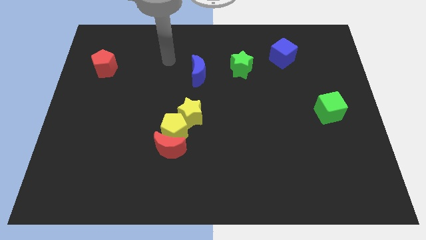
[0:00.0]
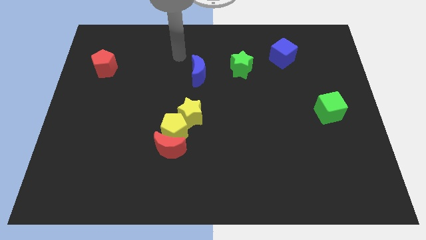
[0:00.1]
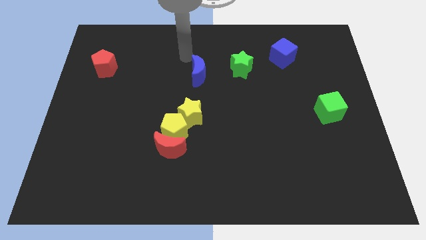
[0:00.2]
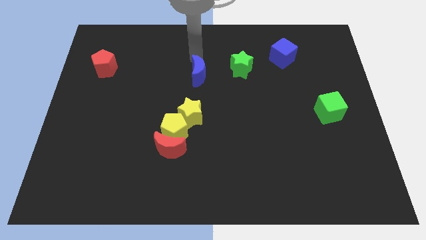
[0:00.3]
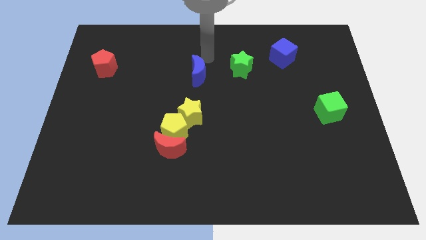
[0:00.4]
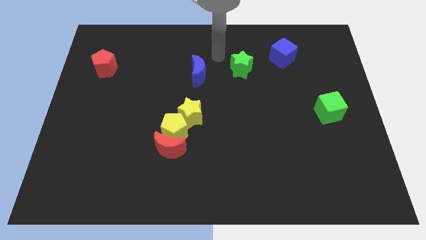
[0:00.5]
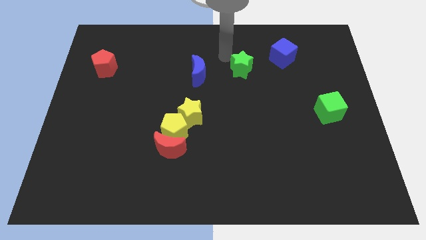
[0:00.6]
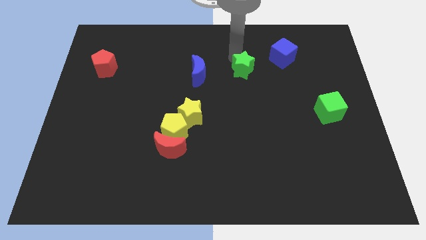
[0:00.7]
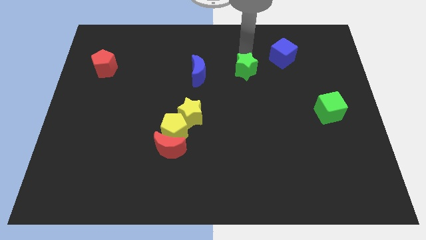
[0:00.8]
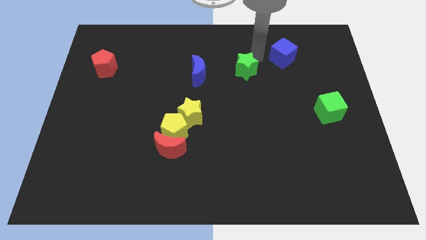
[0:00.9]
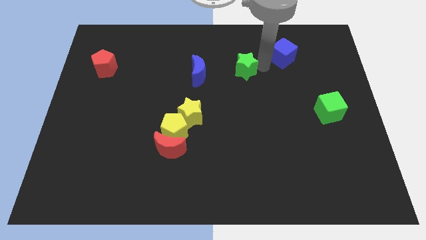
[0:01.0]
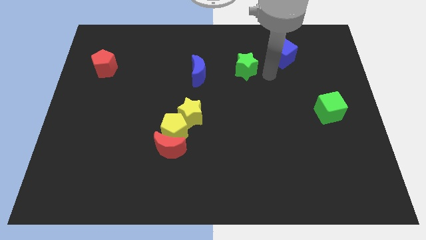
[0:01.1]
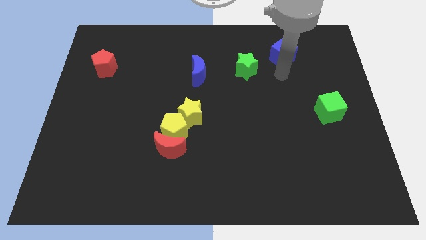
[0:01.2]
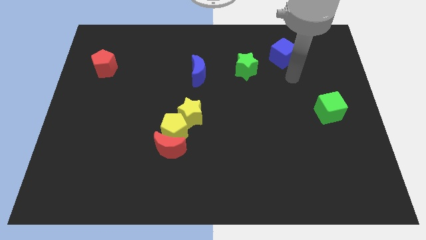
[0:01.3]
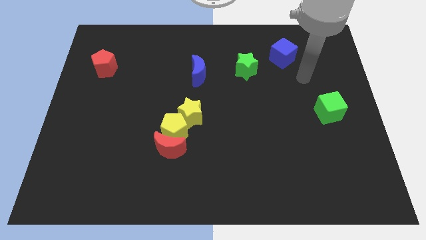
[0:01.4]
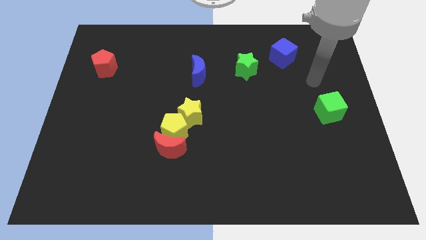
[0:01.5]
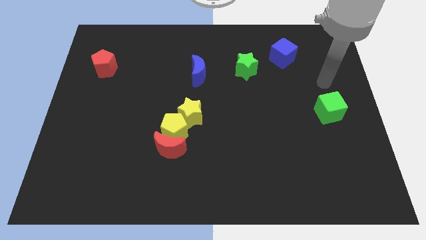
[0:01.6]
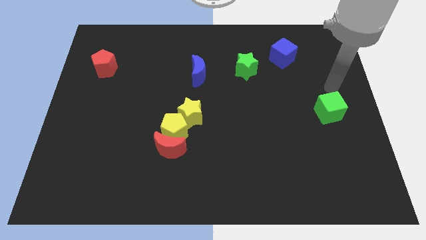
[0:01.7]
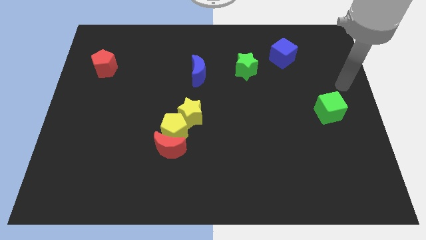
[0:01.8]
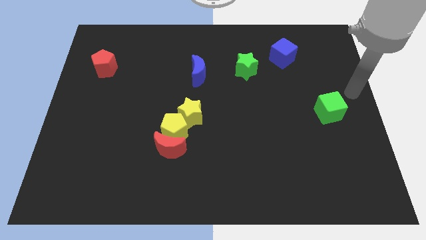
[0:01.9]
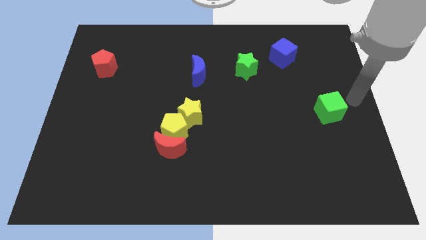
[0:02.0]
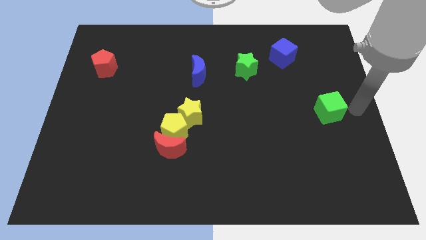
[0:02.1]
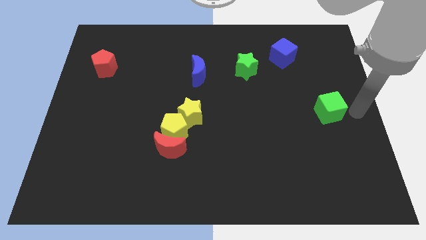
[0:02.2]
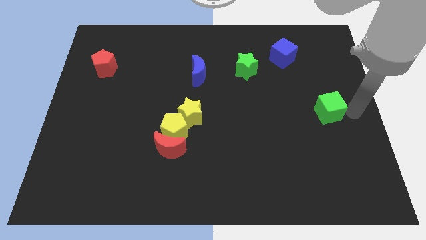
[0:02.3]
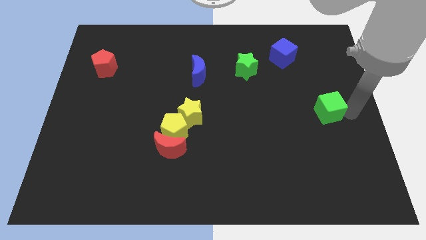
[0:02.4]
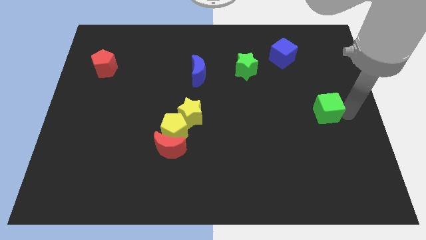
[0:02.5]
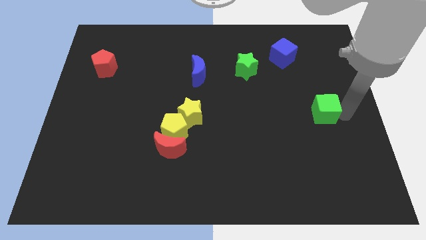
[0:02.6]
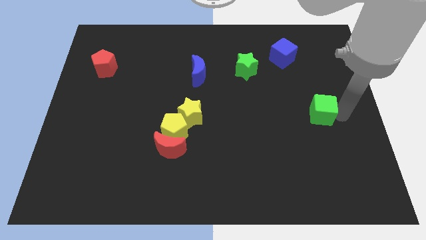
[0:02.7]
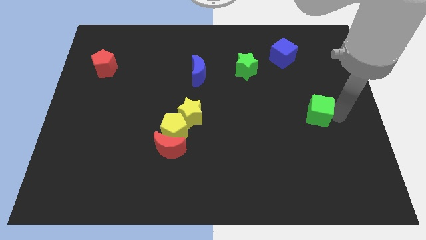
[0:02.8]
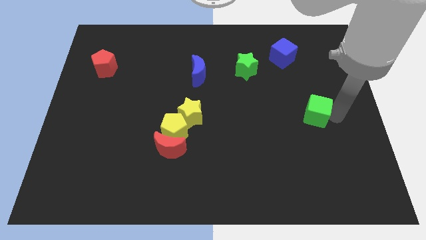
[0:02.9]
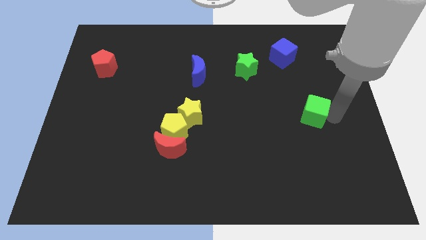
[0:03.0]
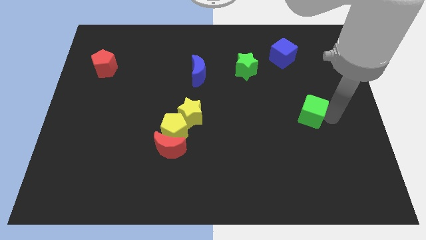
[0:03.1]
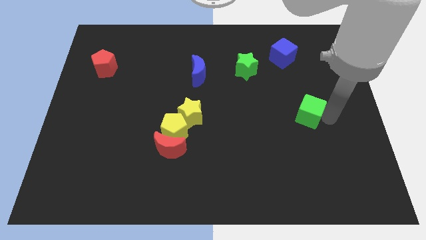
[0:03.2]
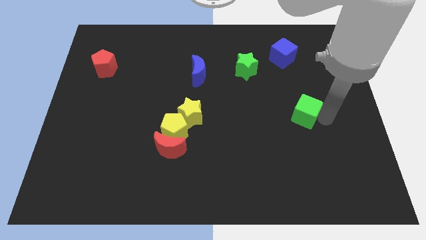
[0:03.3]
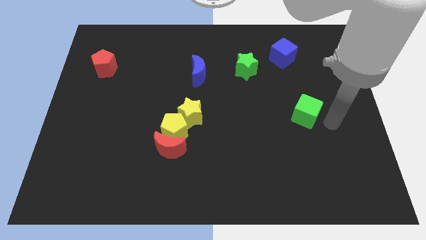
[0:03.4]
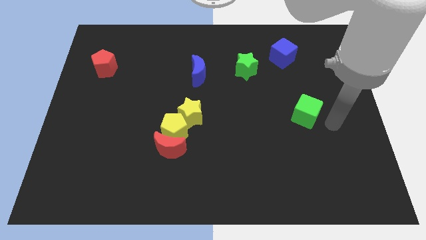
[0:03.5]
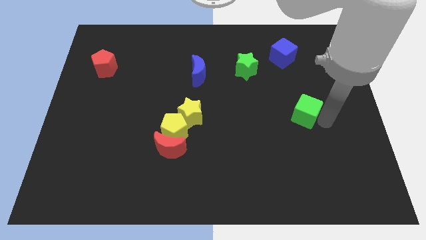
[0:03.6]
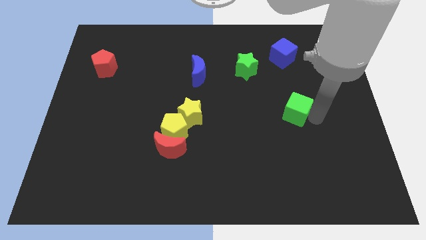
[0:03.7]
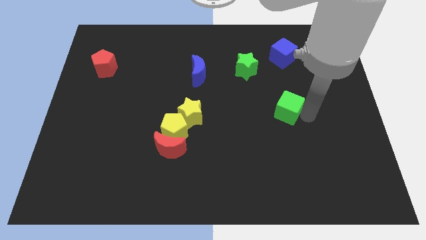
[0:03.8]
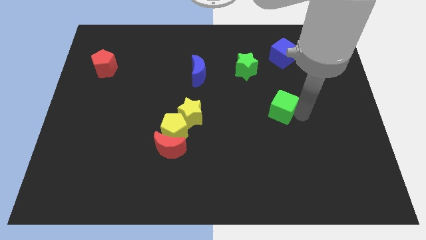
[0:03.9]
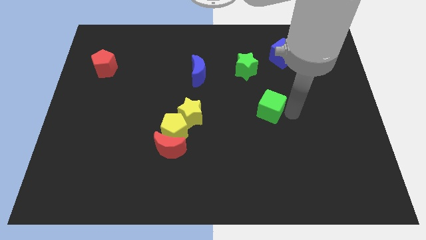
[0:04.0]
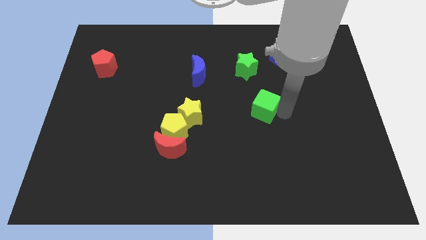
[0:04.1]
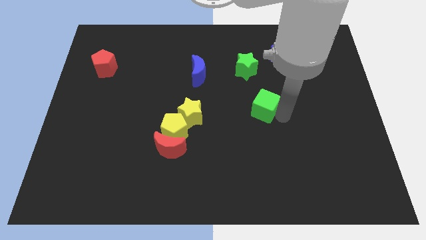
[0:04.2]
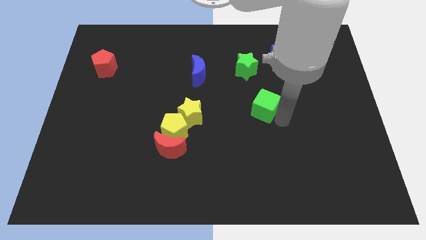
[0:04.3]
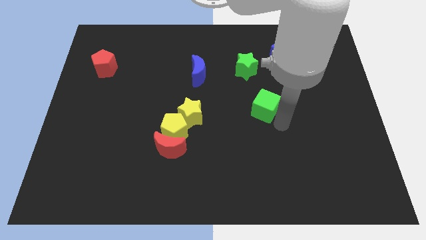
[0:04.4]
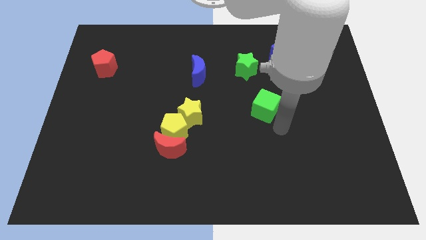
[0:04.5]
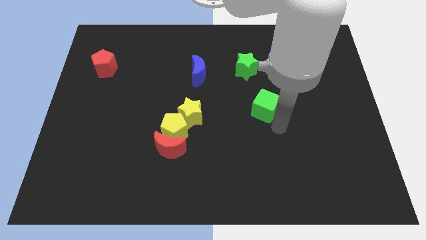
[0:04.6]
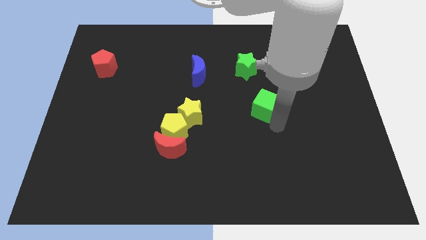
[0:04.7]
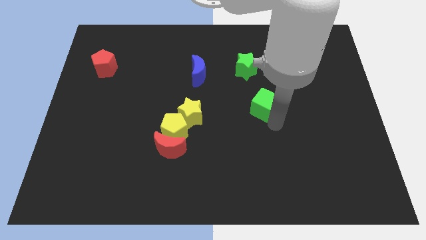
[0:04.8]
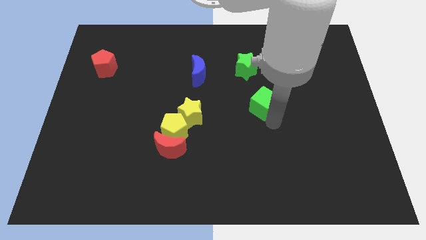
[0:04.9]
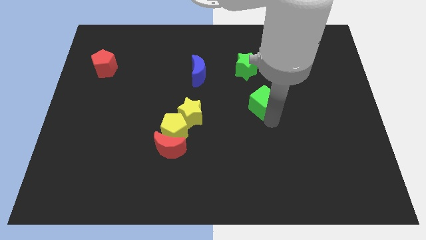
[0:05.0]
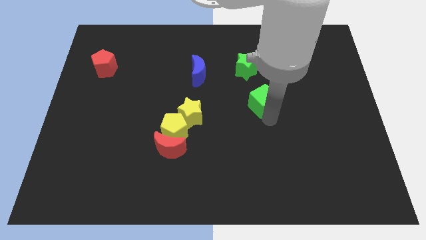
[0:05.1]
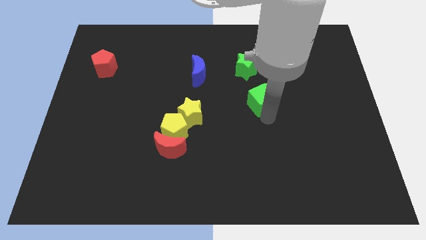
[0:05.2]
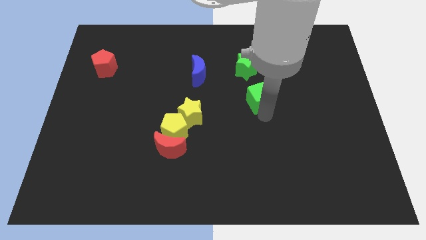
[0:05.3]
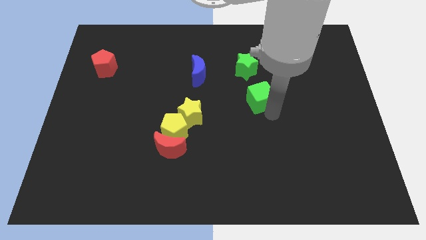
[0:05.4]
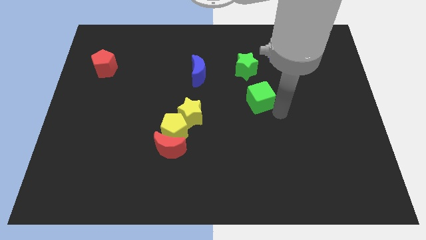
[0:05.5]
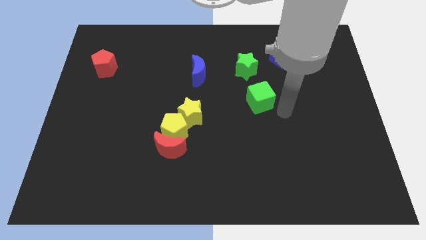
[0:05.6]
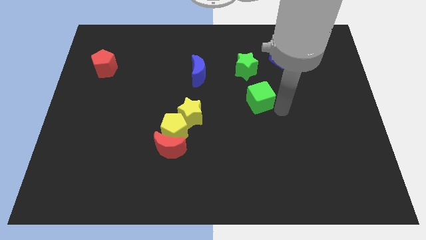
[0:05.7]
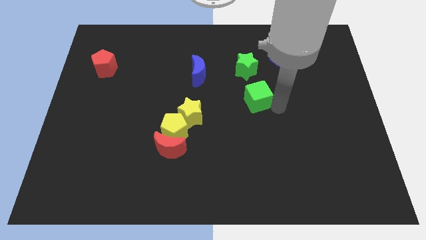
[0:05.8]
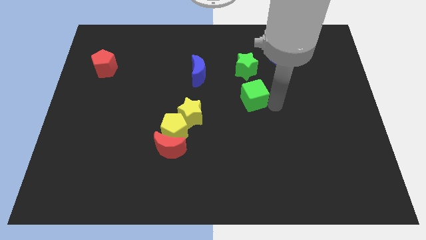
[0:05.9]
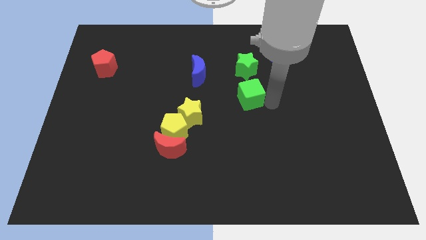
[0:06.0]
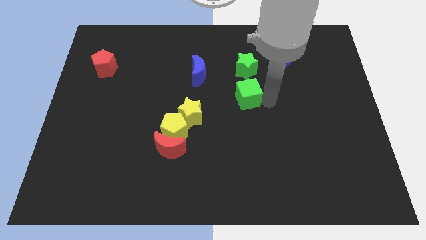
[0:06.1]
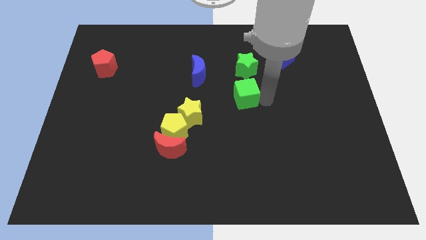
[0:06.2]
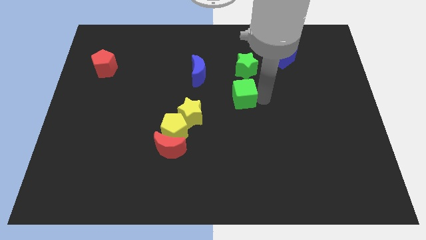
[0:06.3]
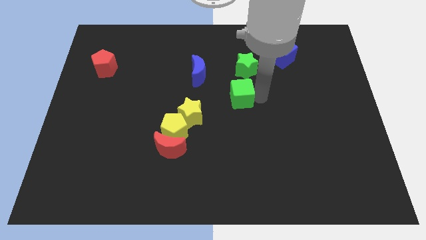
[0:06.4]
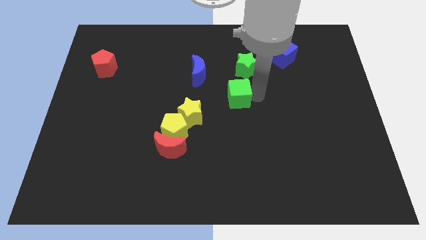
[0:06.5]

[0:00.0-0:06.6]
slide the green cube to the bottom left of the green star

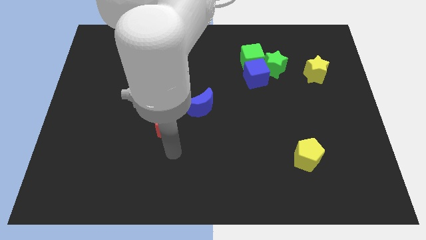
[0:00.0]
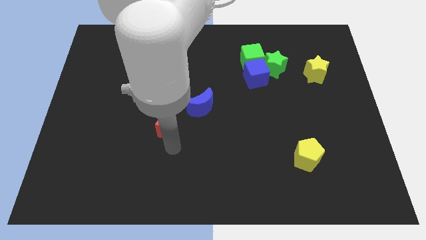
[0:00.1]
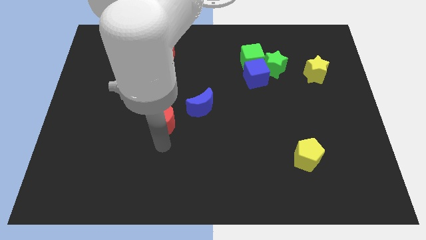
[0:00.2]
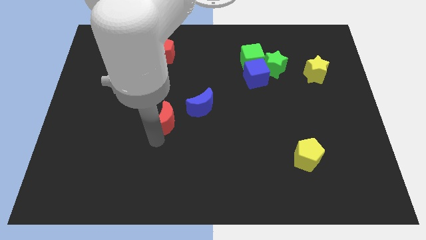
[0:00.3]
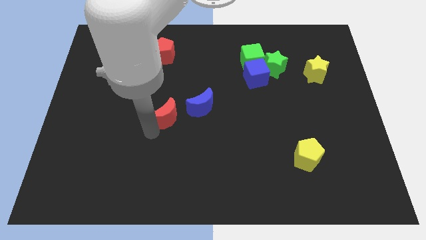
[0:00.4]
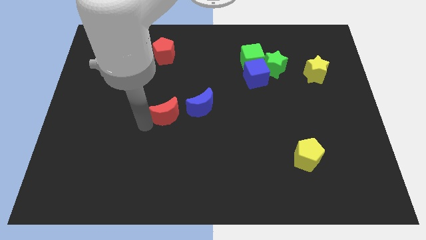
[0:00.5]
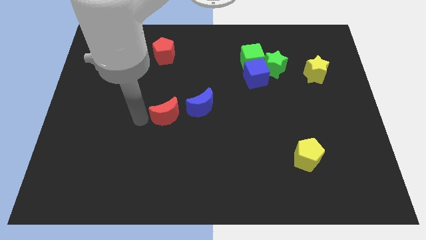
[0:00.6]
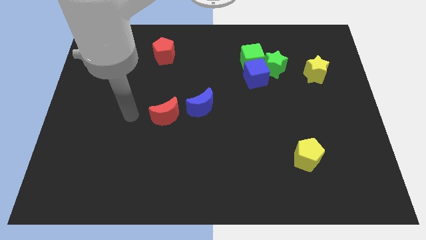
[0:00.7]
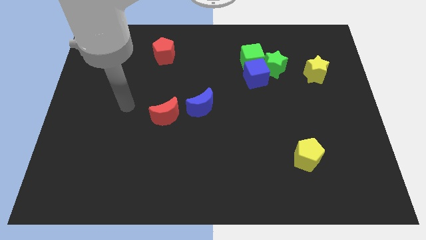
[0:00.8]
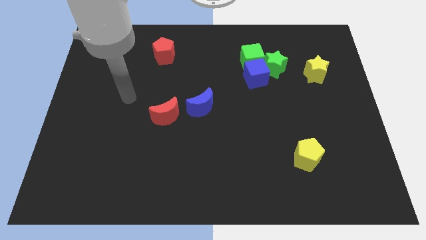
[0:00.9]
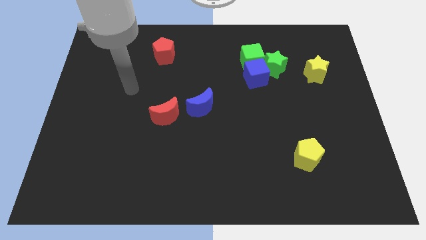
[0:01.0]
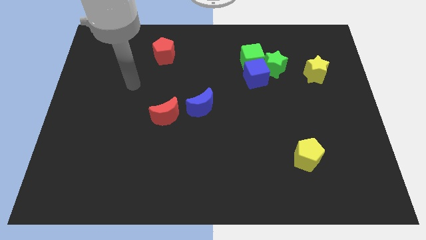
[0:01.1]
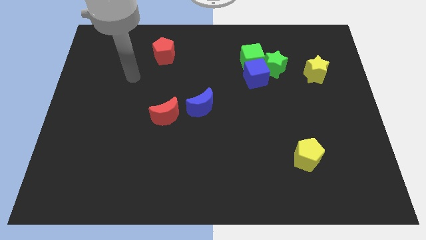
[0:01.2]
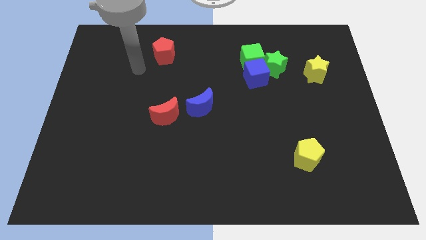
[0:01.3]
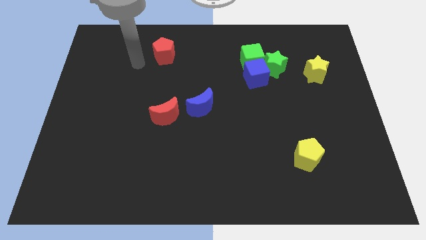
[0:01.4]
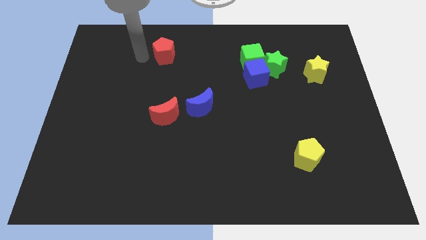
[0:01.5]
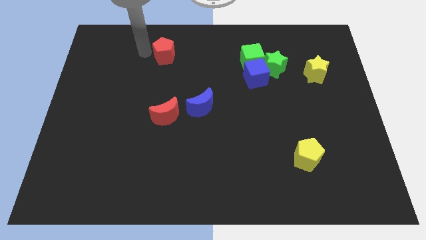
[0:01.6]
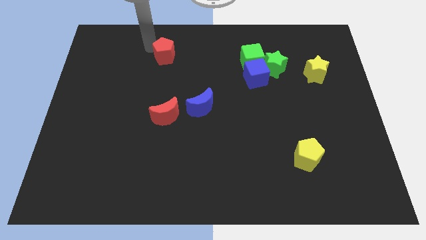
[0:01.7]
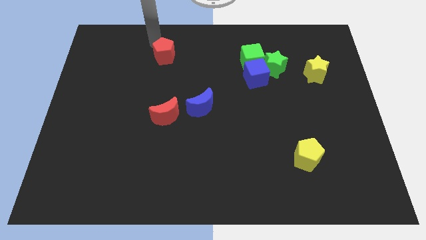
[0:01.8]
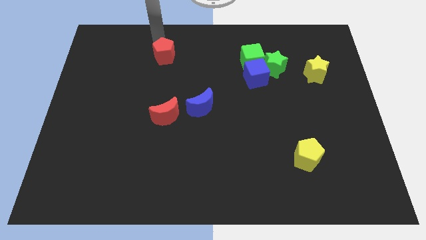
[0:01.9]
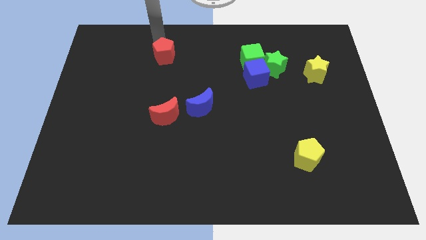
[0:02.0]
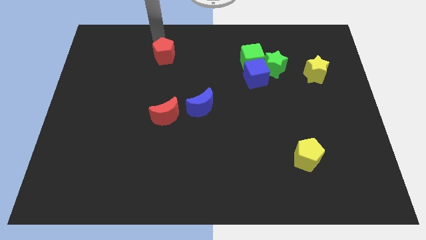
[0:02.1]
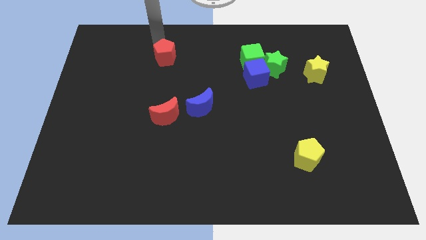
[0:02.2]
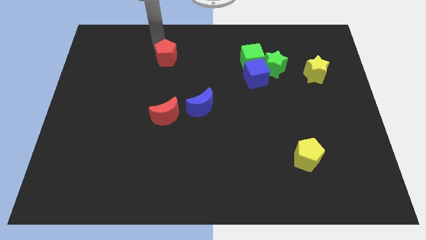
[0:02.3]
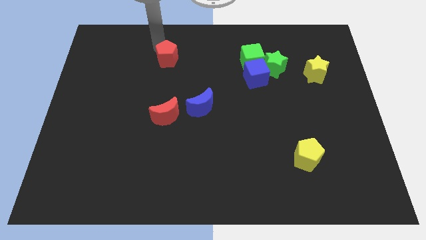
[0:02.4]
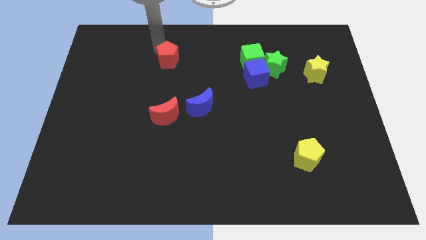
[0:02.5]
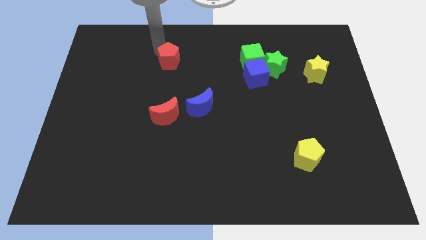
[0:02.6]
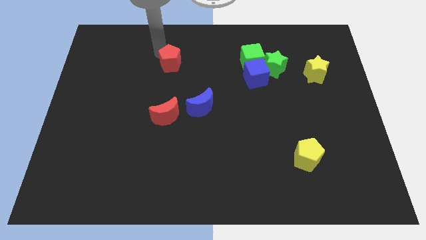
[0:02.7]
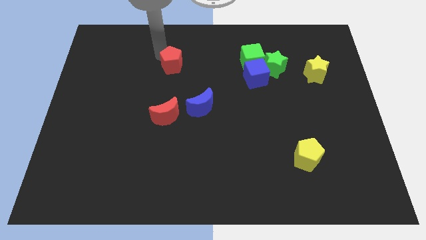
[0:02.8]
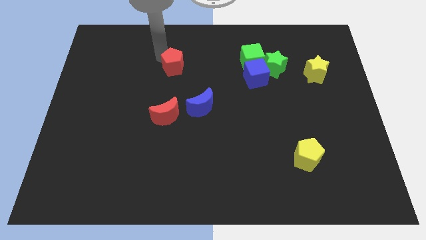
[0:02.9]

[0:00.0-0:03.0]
push the red pentagon to the top of the red moon
